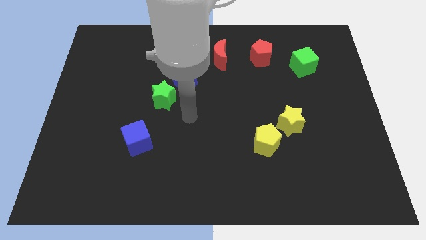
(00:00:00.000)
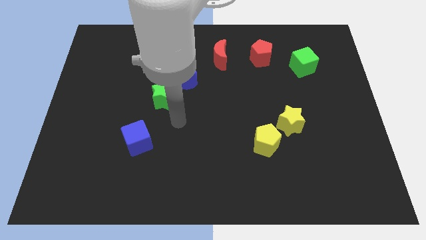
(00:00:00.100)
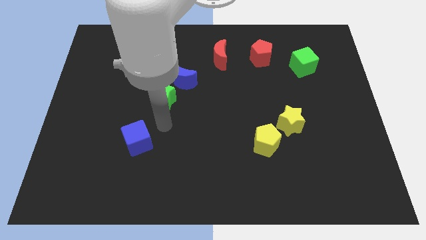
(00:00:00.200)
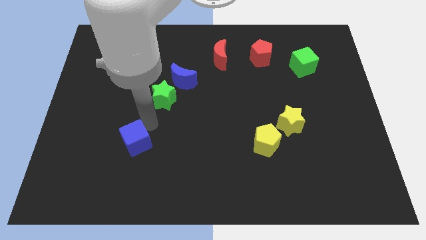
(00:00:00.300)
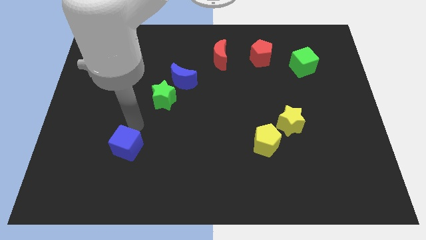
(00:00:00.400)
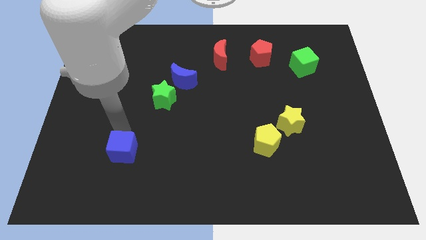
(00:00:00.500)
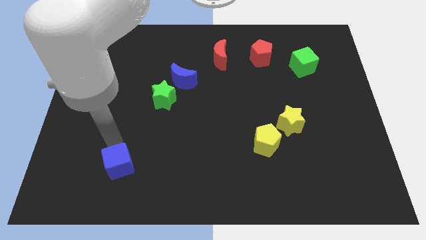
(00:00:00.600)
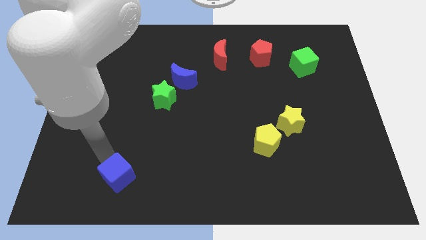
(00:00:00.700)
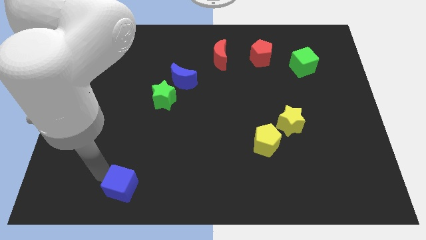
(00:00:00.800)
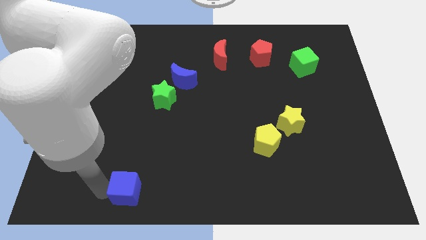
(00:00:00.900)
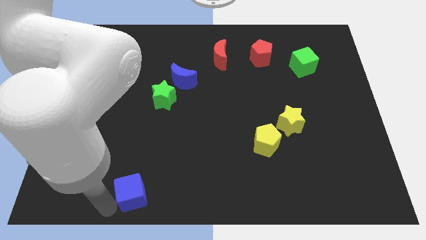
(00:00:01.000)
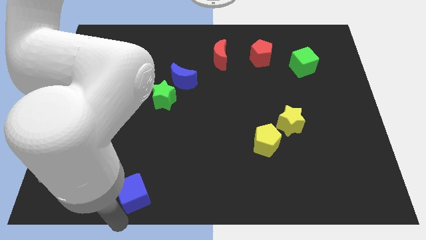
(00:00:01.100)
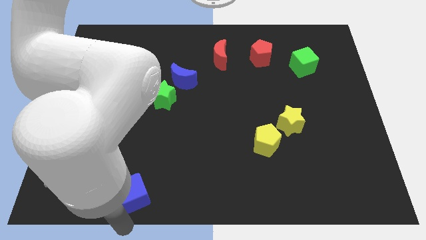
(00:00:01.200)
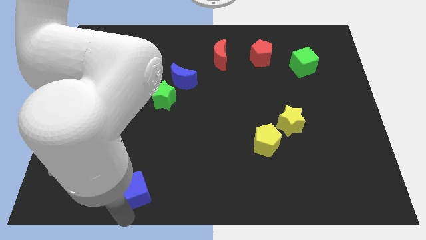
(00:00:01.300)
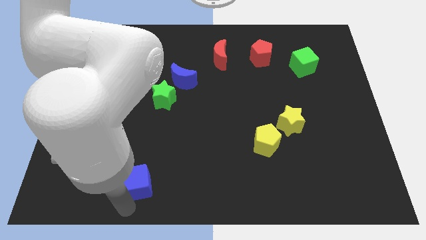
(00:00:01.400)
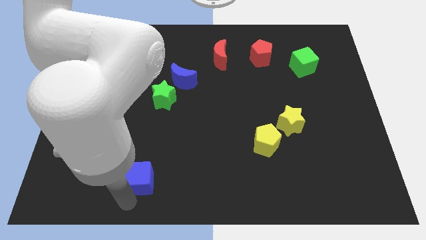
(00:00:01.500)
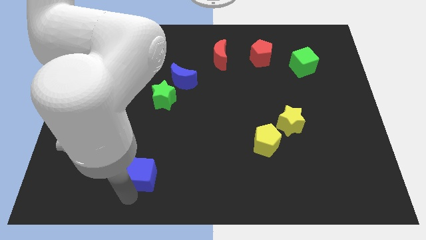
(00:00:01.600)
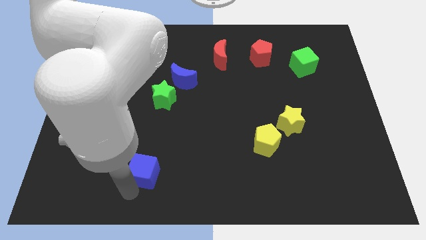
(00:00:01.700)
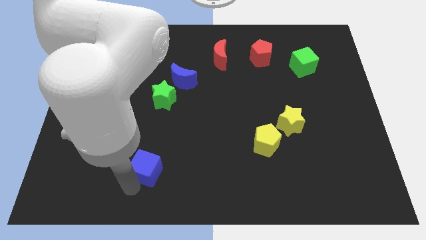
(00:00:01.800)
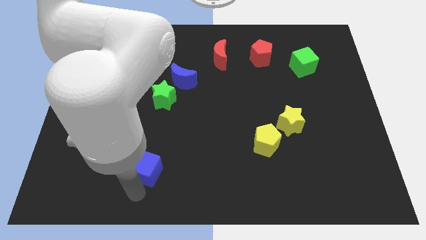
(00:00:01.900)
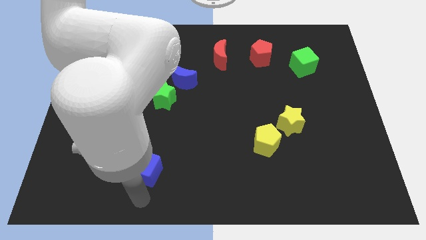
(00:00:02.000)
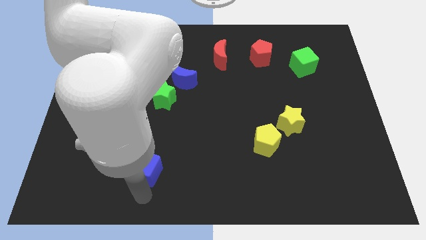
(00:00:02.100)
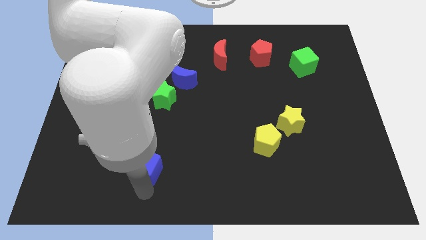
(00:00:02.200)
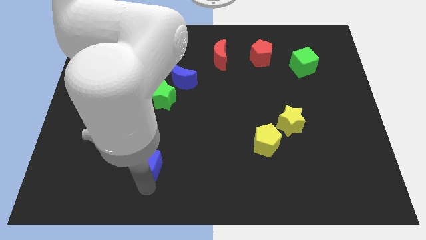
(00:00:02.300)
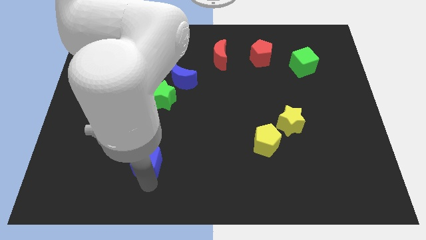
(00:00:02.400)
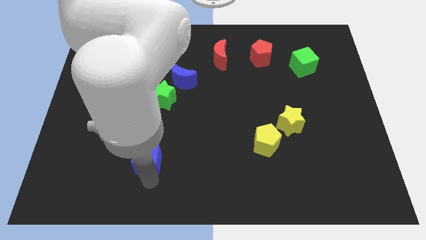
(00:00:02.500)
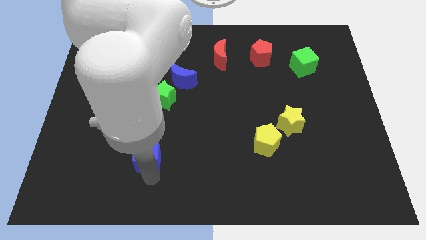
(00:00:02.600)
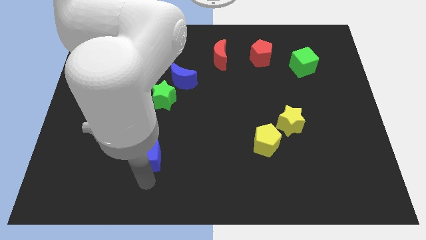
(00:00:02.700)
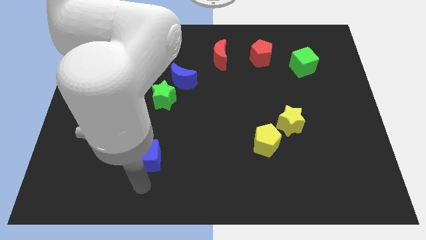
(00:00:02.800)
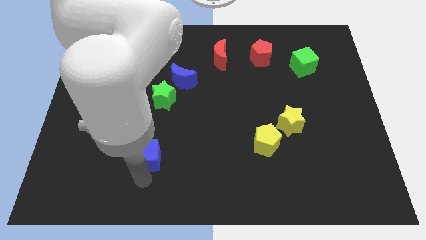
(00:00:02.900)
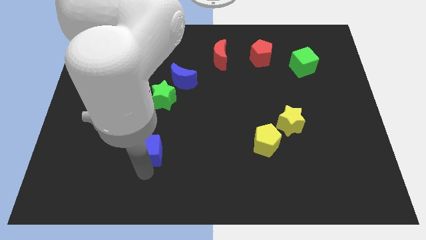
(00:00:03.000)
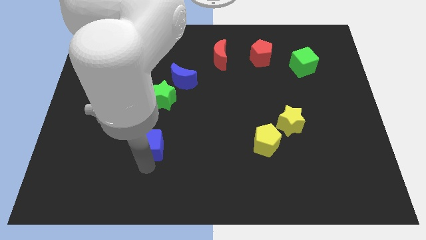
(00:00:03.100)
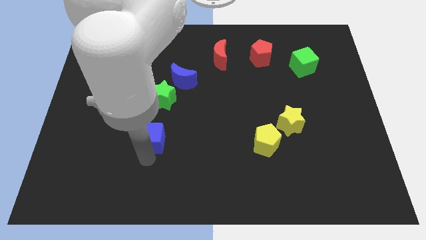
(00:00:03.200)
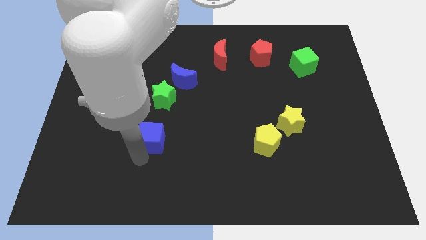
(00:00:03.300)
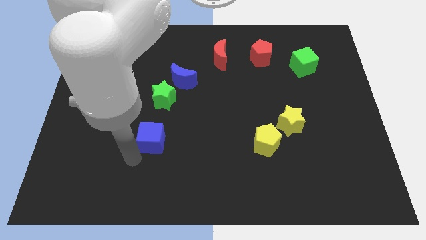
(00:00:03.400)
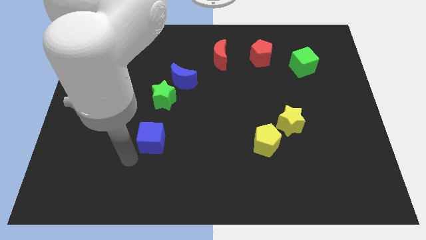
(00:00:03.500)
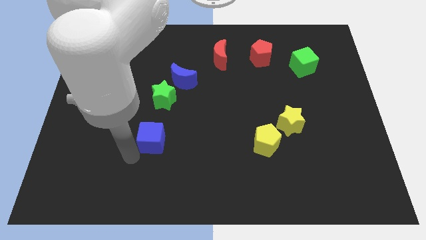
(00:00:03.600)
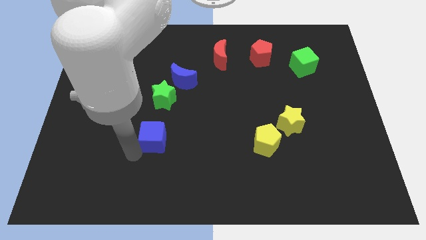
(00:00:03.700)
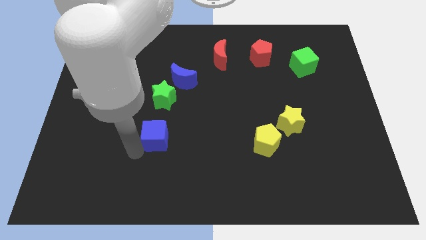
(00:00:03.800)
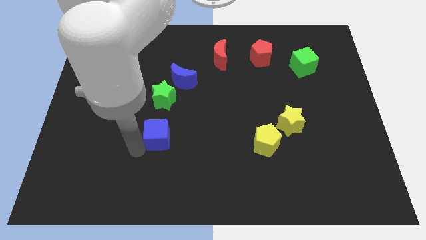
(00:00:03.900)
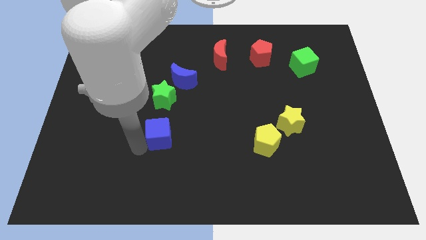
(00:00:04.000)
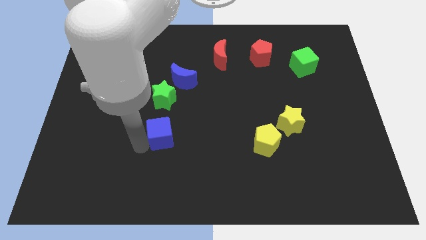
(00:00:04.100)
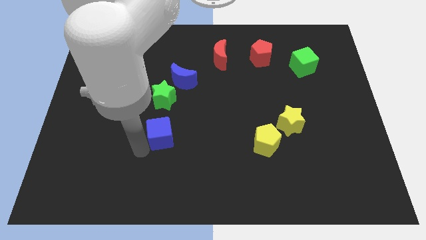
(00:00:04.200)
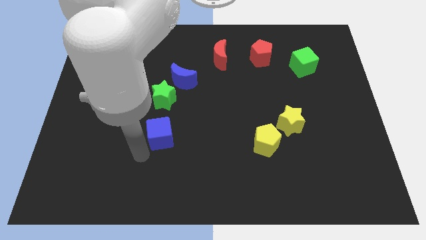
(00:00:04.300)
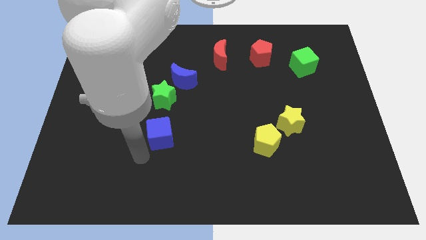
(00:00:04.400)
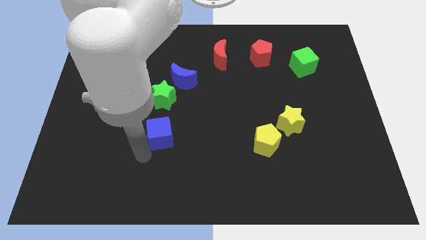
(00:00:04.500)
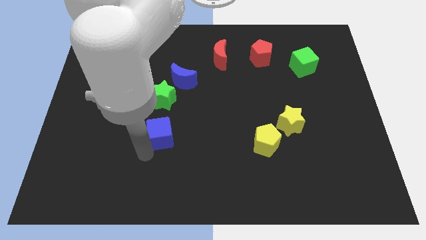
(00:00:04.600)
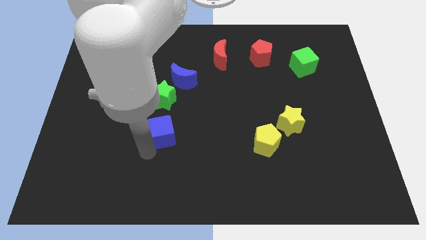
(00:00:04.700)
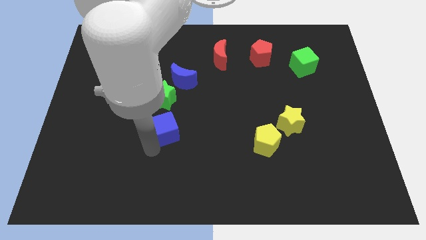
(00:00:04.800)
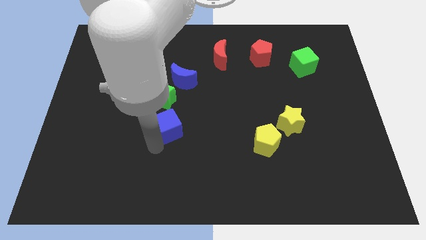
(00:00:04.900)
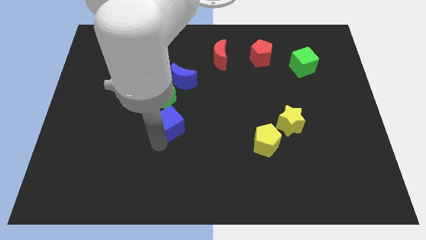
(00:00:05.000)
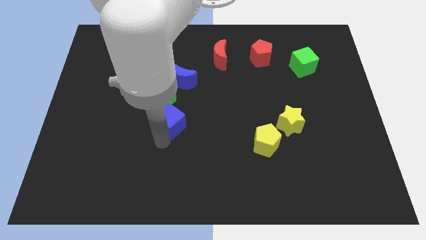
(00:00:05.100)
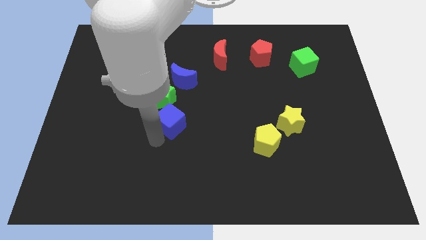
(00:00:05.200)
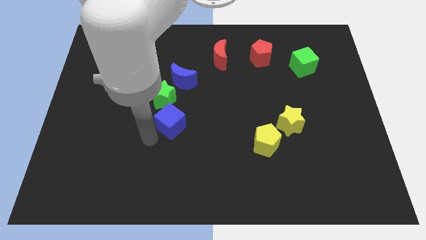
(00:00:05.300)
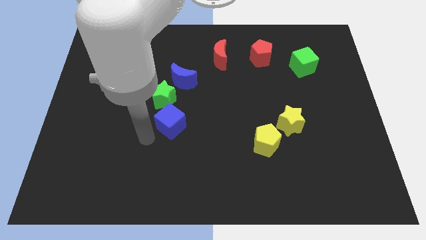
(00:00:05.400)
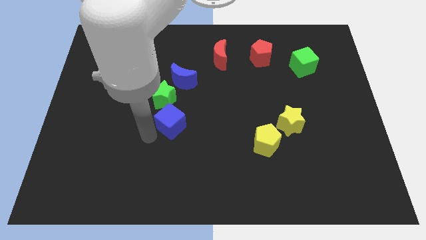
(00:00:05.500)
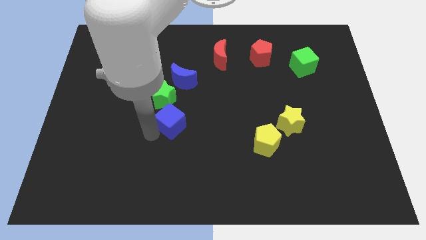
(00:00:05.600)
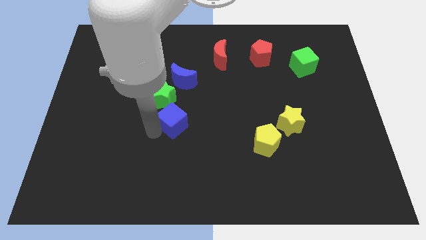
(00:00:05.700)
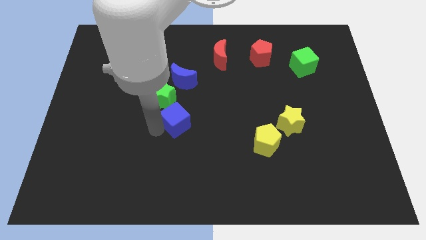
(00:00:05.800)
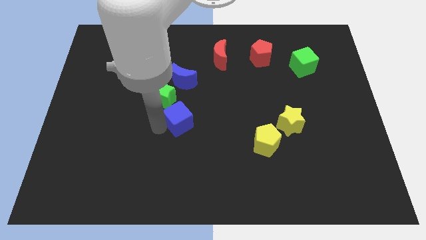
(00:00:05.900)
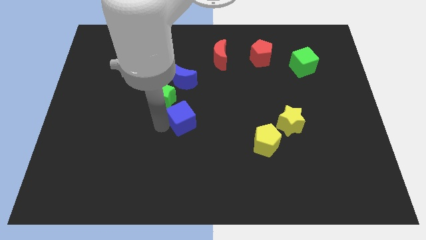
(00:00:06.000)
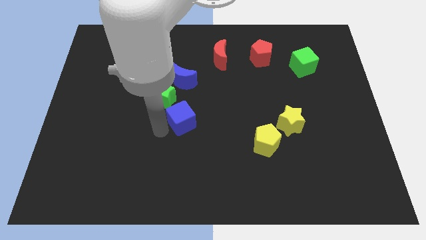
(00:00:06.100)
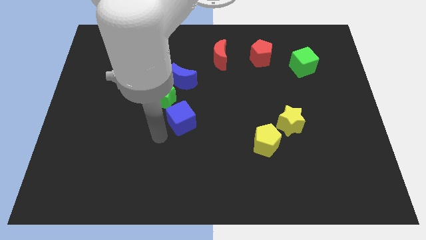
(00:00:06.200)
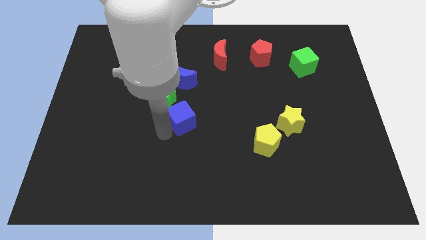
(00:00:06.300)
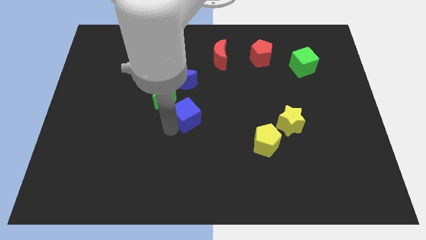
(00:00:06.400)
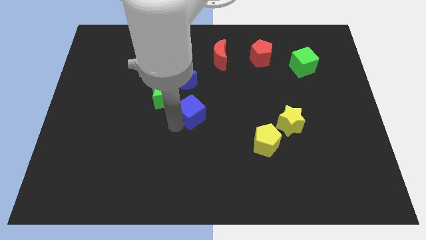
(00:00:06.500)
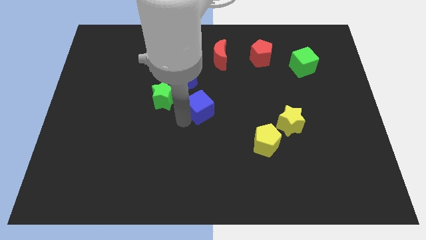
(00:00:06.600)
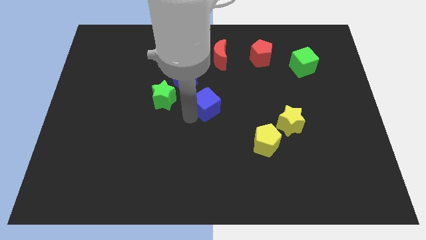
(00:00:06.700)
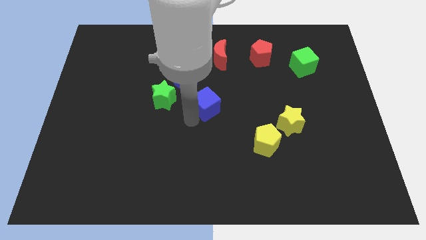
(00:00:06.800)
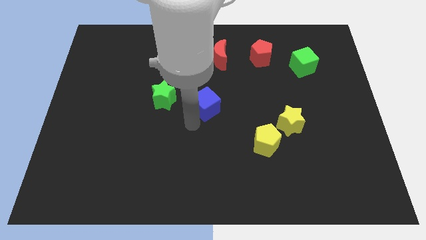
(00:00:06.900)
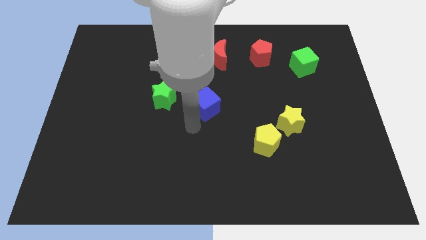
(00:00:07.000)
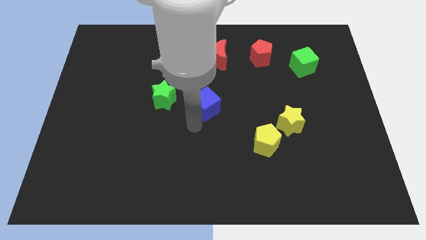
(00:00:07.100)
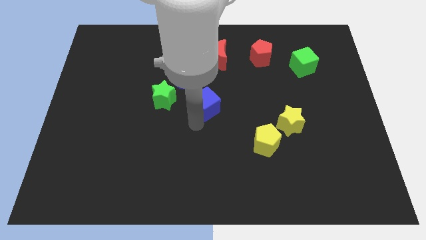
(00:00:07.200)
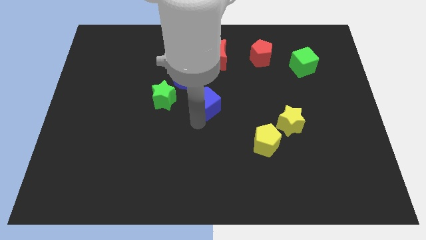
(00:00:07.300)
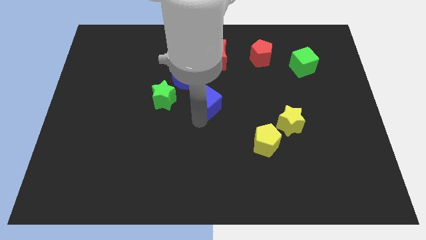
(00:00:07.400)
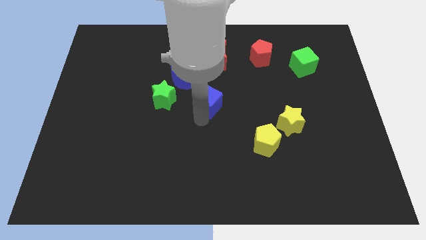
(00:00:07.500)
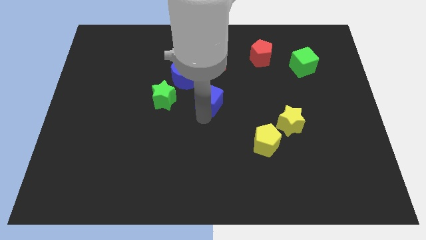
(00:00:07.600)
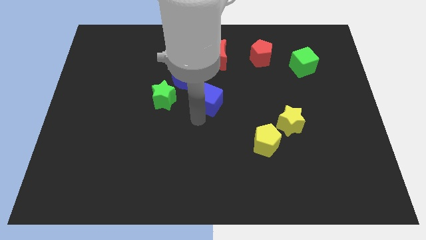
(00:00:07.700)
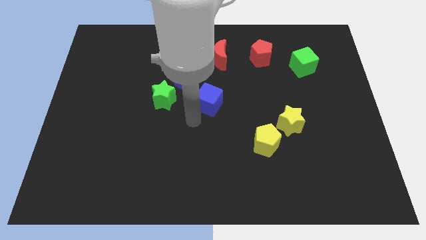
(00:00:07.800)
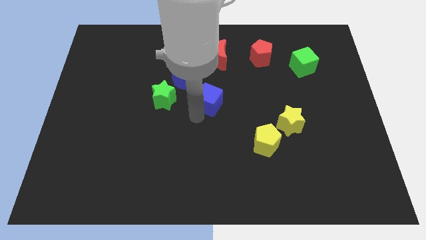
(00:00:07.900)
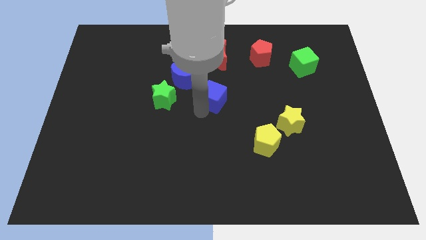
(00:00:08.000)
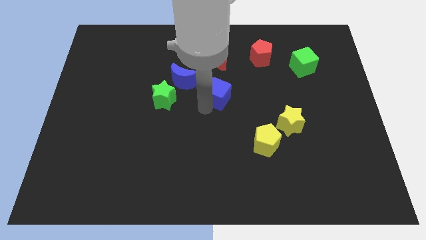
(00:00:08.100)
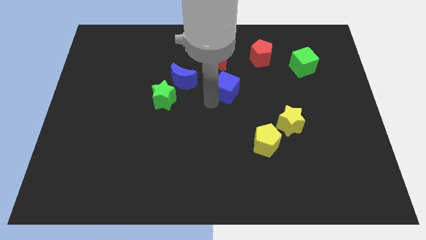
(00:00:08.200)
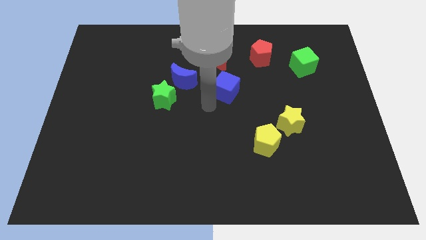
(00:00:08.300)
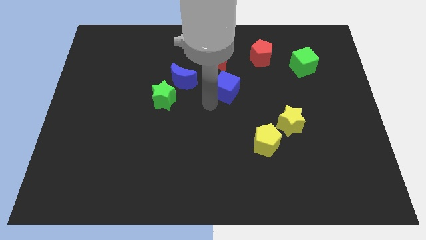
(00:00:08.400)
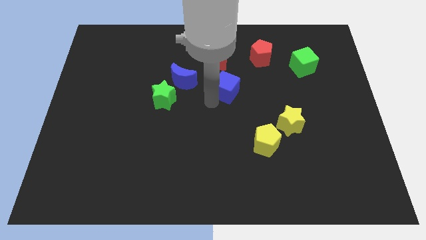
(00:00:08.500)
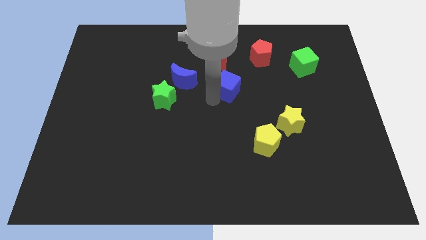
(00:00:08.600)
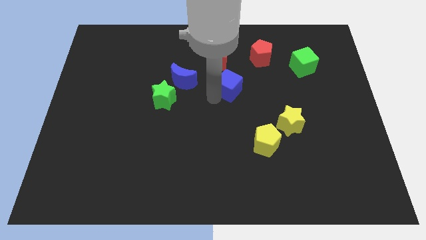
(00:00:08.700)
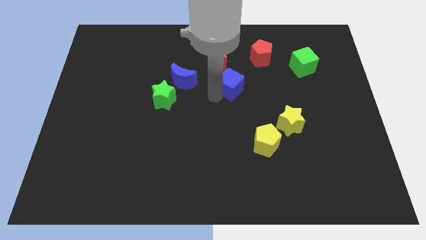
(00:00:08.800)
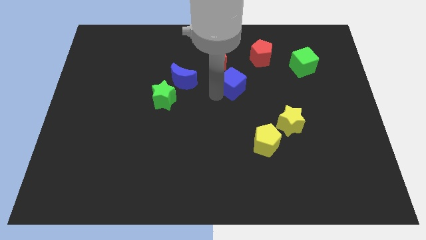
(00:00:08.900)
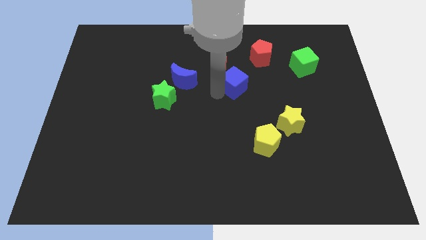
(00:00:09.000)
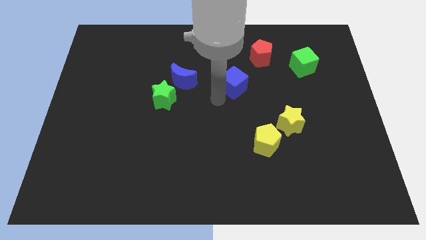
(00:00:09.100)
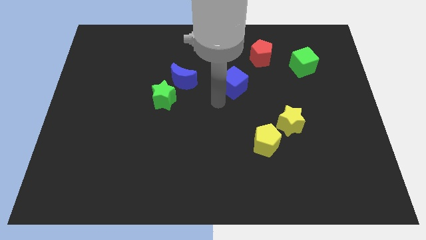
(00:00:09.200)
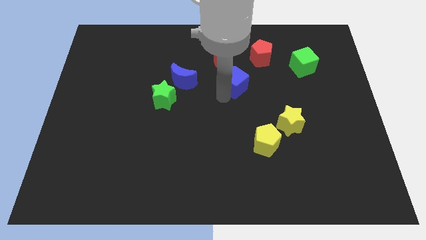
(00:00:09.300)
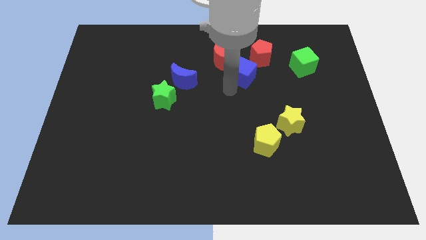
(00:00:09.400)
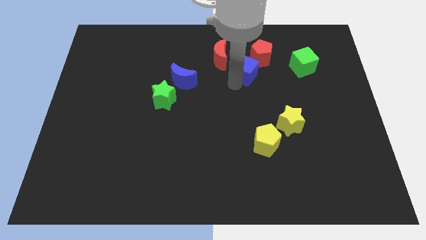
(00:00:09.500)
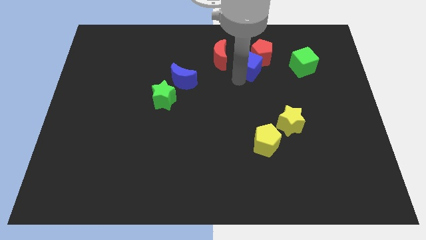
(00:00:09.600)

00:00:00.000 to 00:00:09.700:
put the blue cube close to the red pentagon
